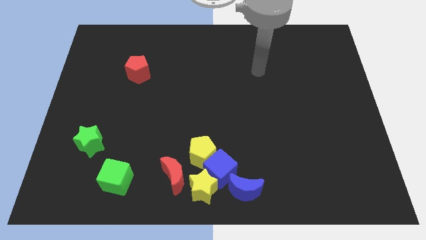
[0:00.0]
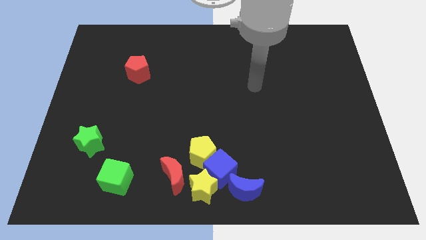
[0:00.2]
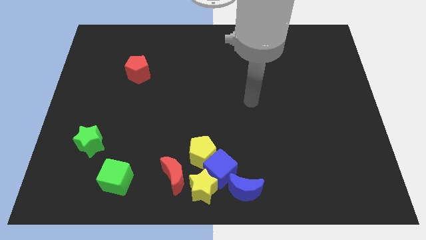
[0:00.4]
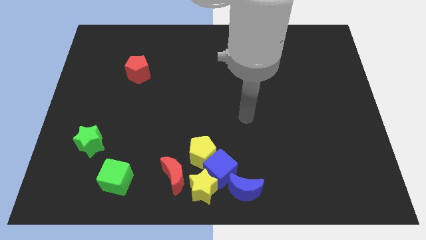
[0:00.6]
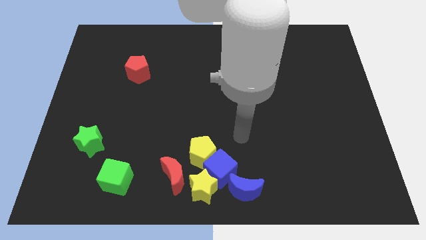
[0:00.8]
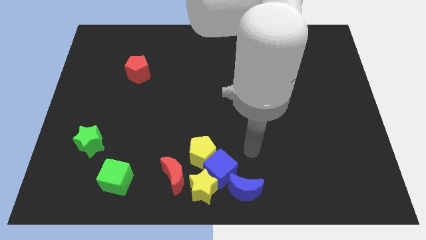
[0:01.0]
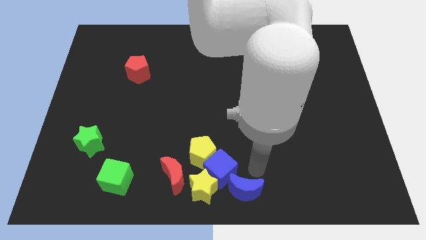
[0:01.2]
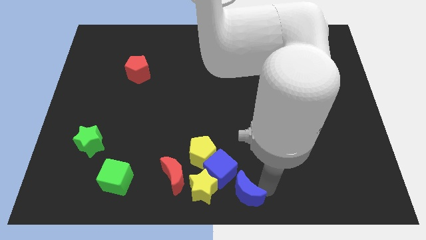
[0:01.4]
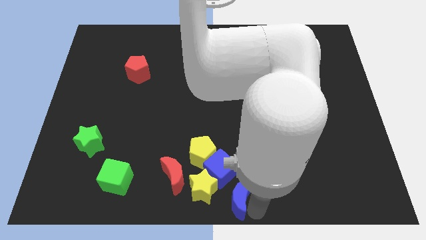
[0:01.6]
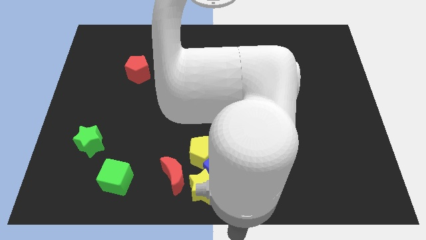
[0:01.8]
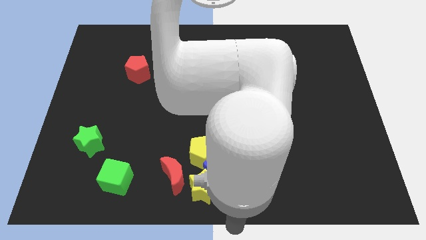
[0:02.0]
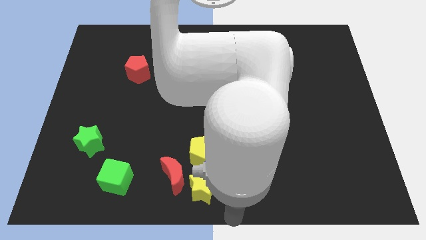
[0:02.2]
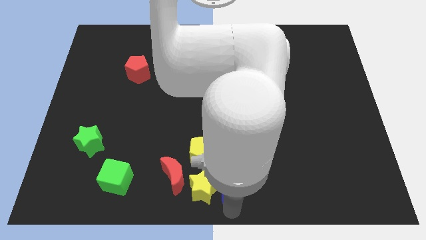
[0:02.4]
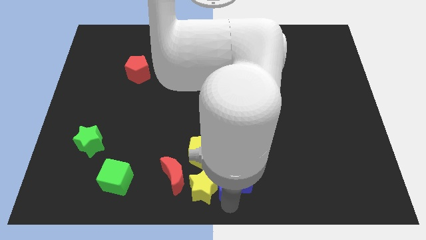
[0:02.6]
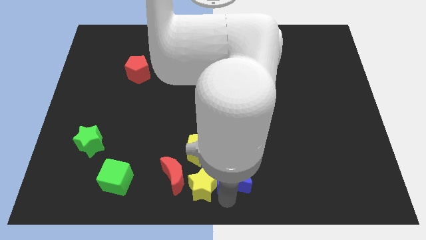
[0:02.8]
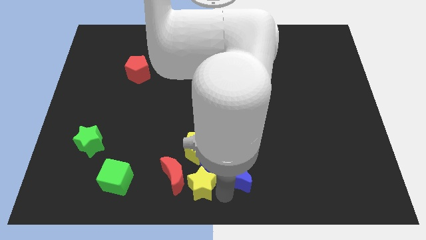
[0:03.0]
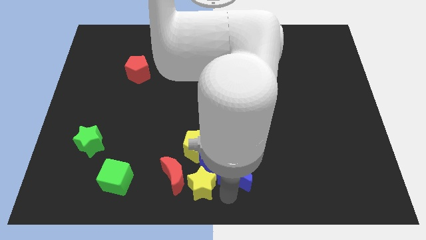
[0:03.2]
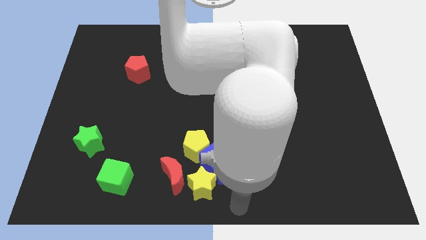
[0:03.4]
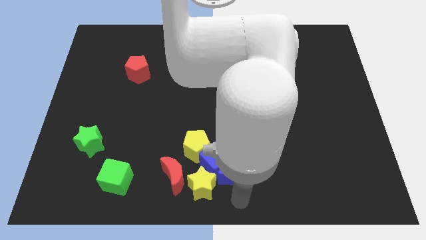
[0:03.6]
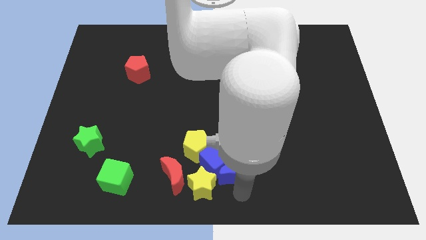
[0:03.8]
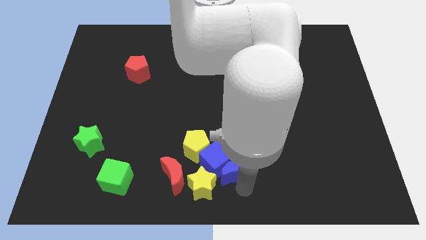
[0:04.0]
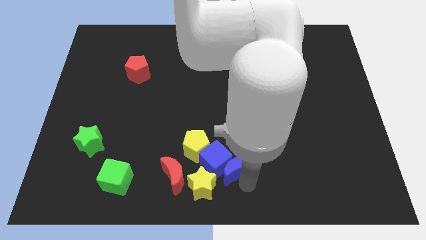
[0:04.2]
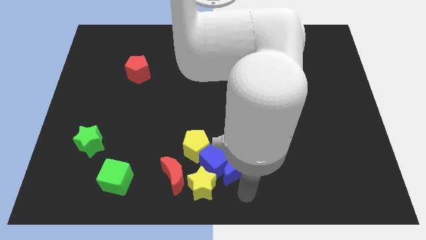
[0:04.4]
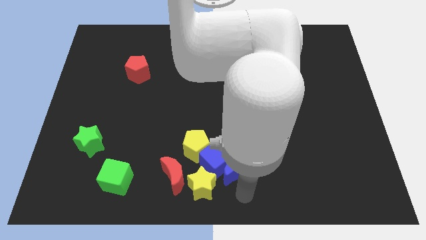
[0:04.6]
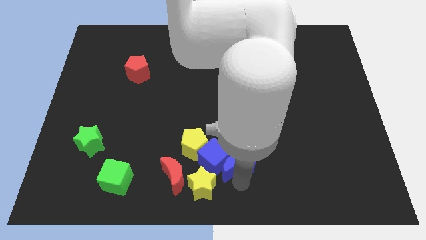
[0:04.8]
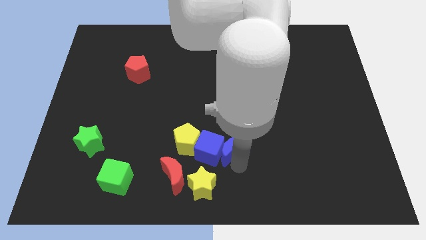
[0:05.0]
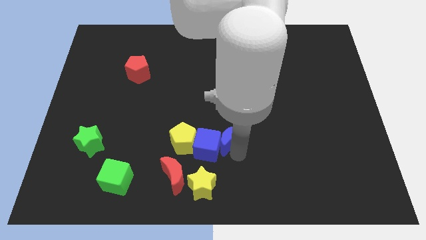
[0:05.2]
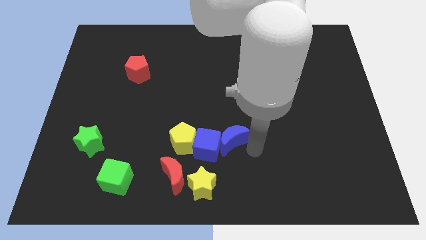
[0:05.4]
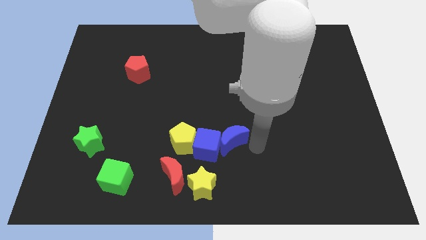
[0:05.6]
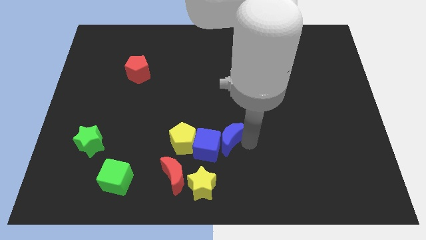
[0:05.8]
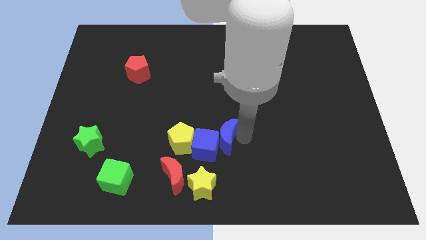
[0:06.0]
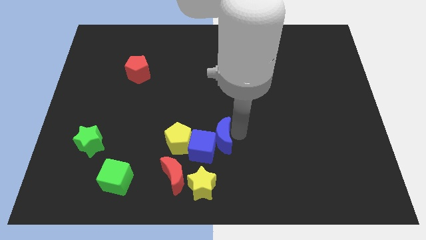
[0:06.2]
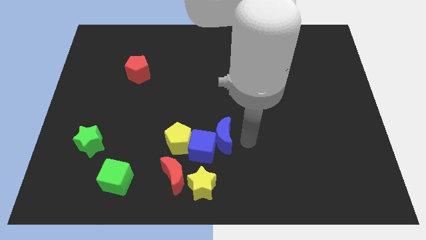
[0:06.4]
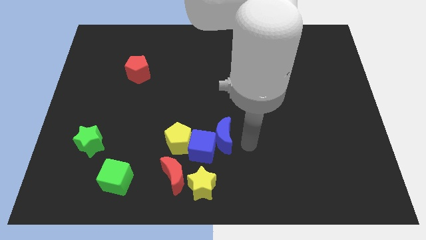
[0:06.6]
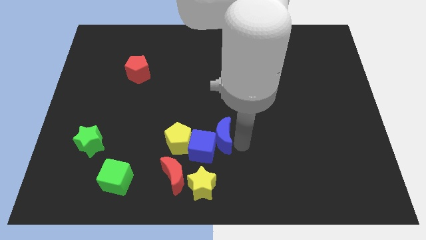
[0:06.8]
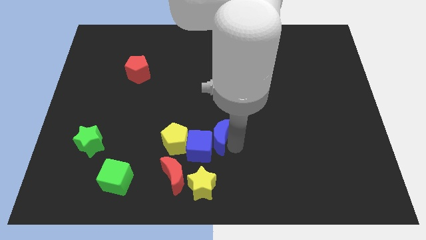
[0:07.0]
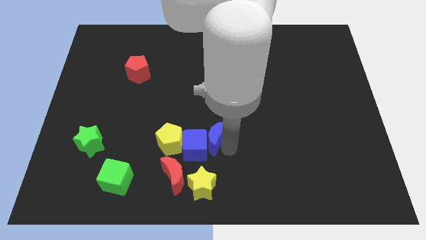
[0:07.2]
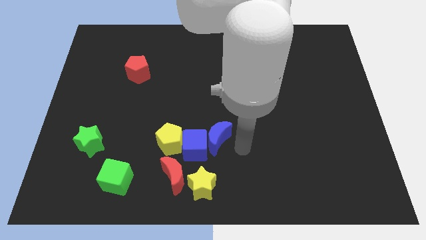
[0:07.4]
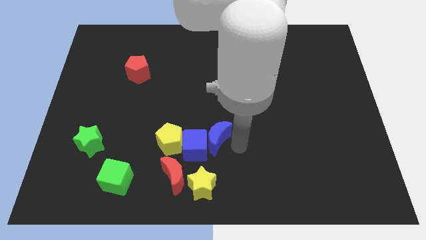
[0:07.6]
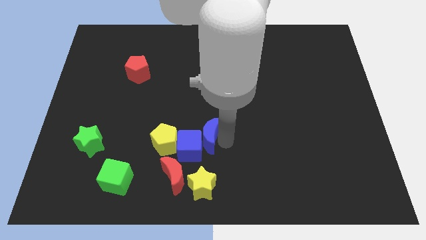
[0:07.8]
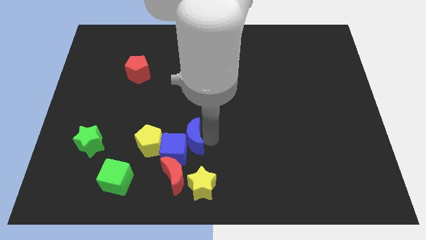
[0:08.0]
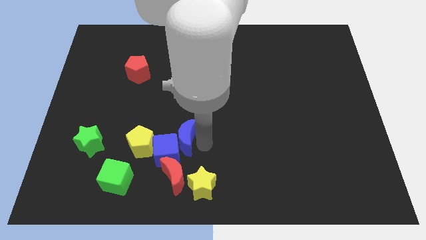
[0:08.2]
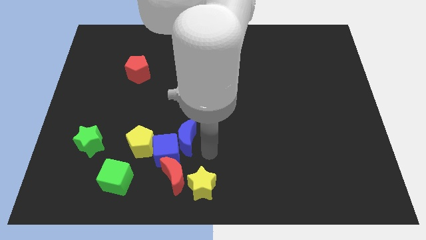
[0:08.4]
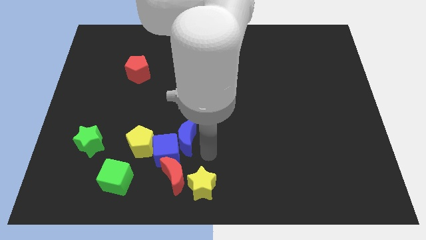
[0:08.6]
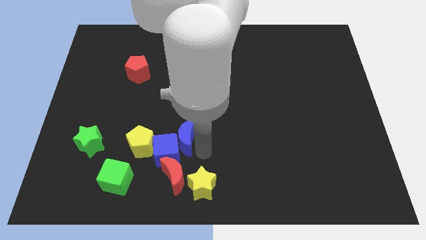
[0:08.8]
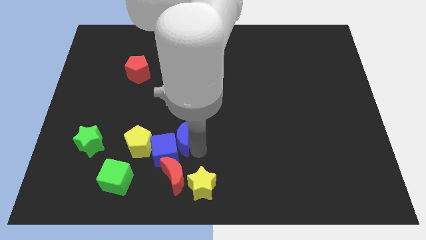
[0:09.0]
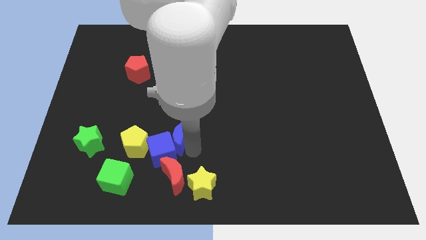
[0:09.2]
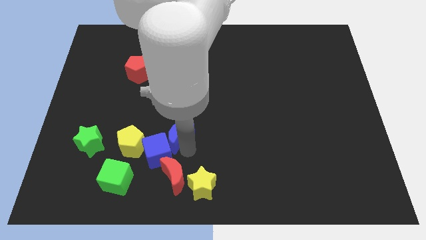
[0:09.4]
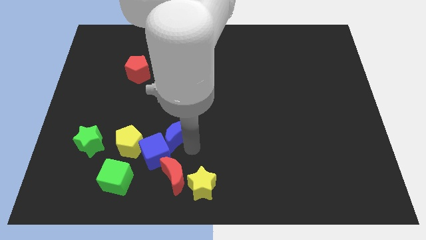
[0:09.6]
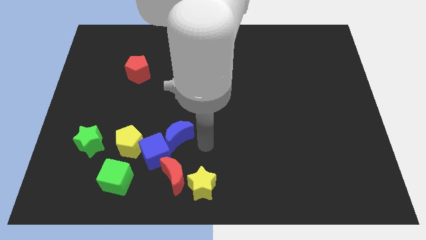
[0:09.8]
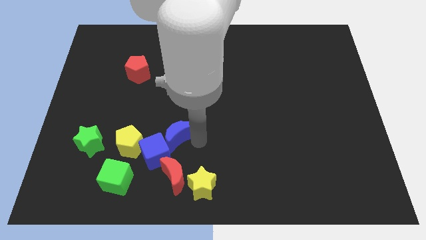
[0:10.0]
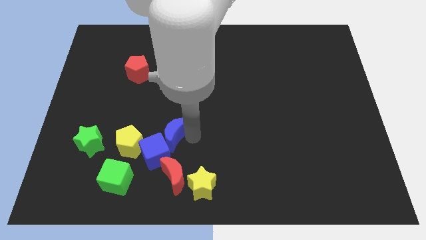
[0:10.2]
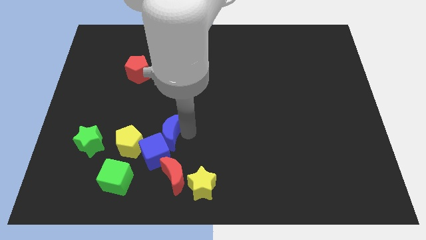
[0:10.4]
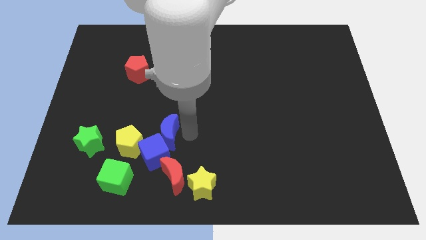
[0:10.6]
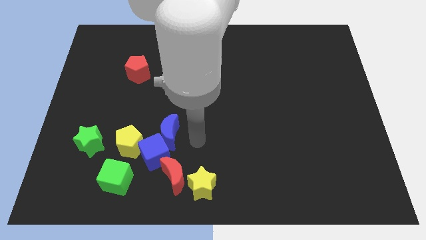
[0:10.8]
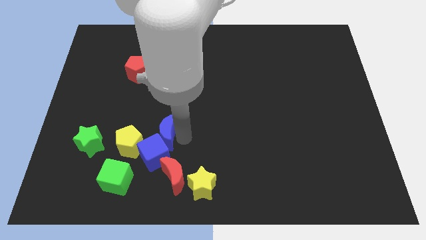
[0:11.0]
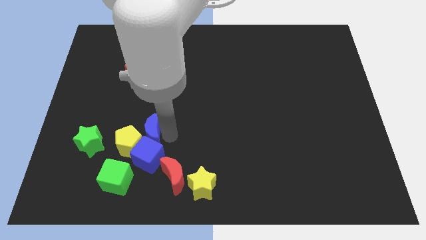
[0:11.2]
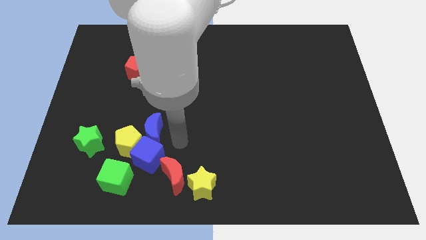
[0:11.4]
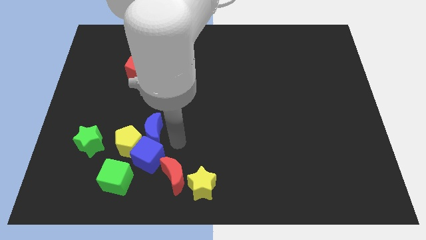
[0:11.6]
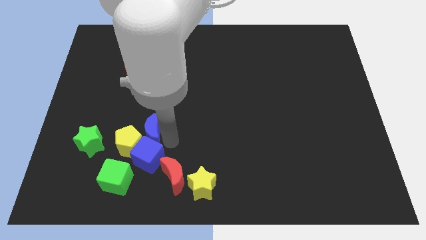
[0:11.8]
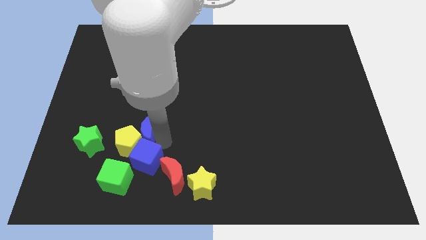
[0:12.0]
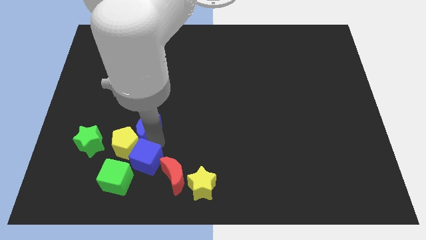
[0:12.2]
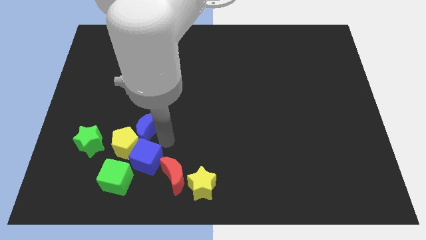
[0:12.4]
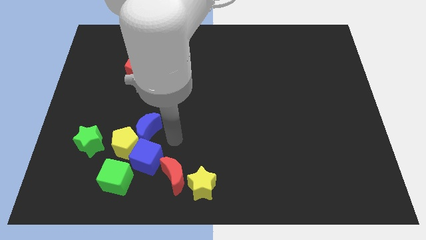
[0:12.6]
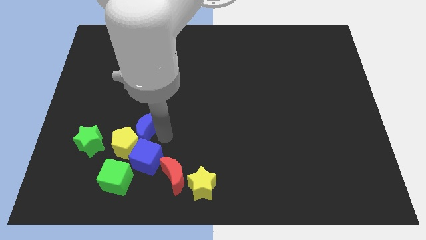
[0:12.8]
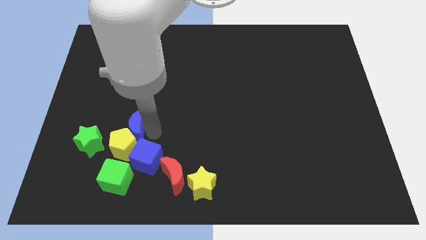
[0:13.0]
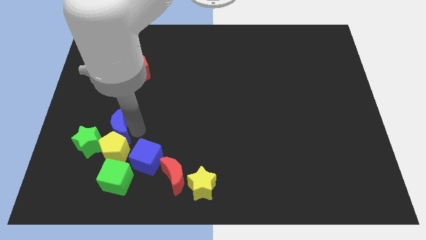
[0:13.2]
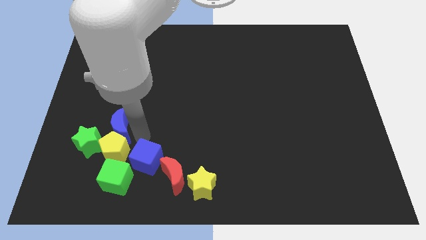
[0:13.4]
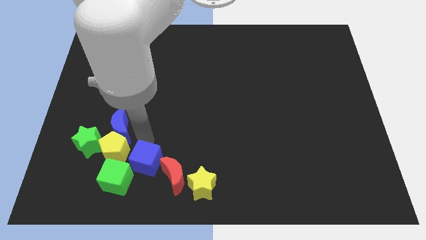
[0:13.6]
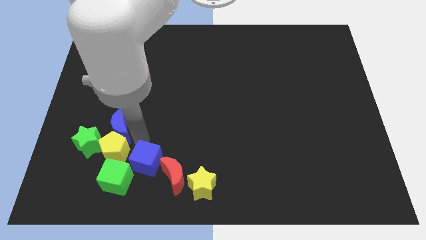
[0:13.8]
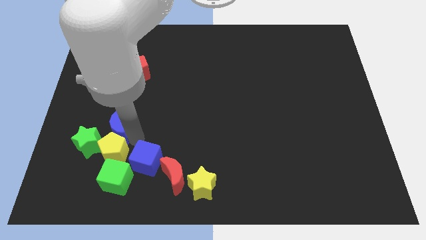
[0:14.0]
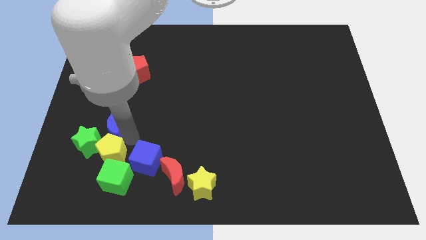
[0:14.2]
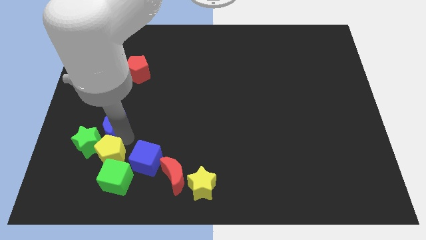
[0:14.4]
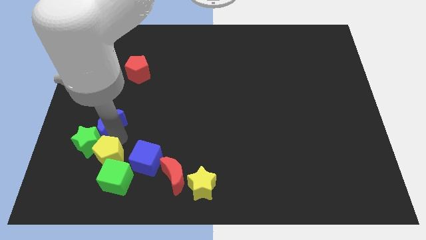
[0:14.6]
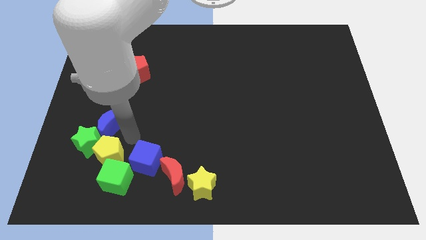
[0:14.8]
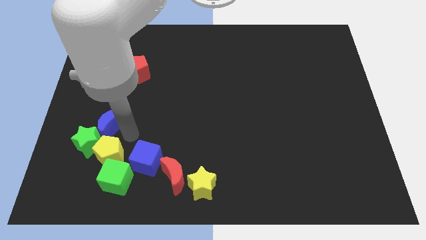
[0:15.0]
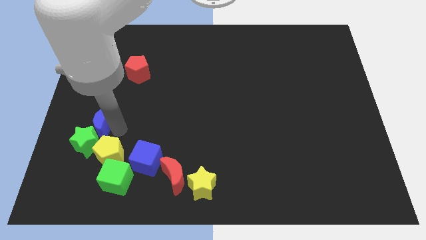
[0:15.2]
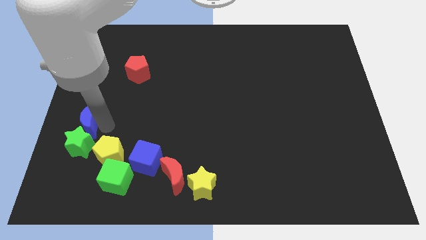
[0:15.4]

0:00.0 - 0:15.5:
put the blue moon to the left side

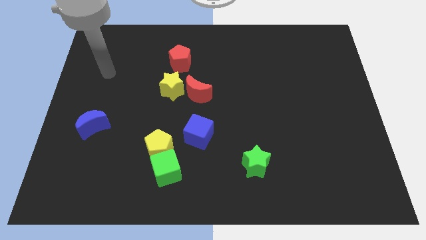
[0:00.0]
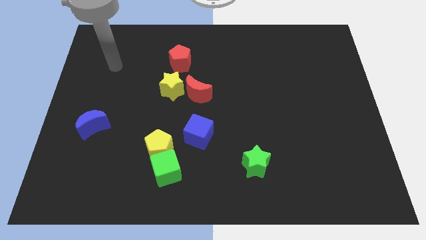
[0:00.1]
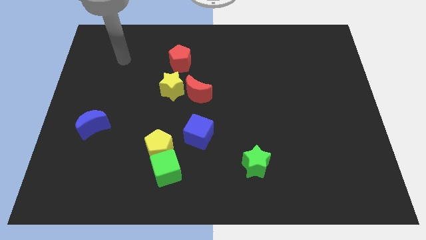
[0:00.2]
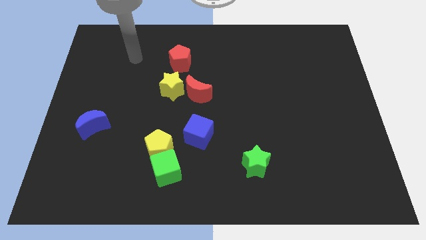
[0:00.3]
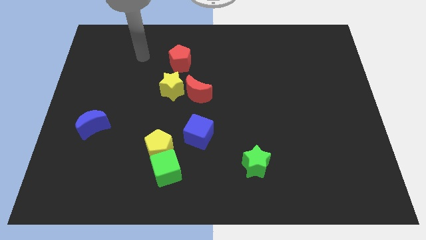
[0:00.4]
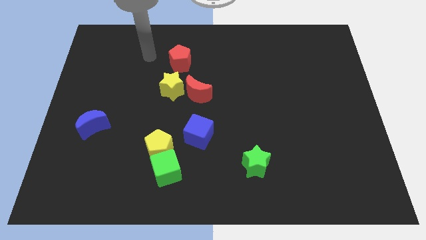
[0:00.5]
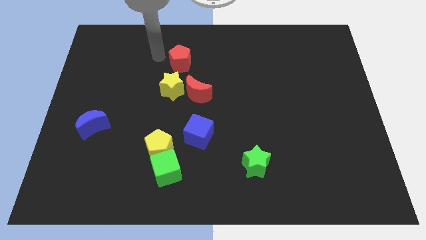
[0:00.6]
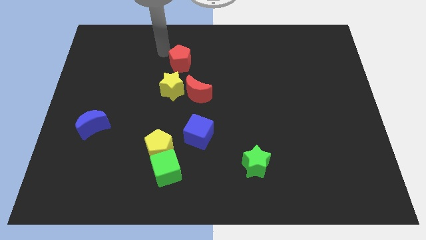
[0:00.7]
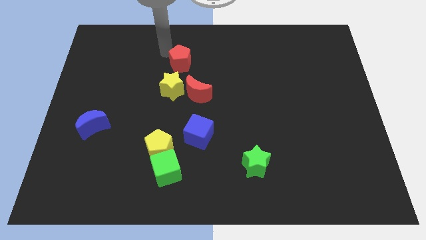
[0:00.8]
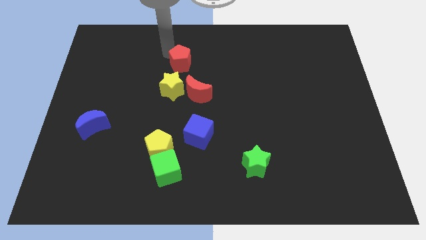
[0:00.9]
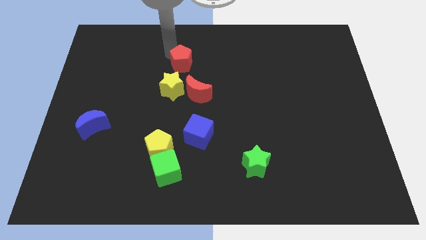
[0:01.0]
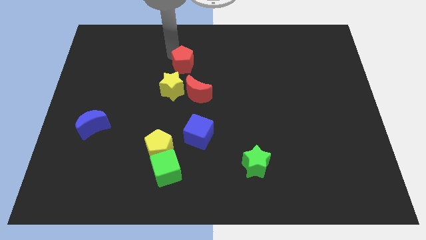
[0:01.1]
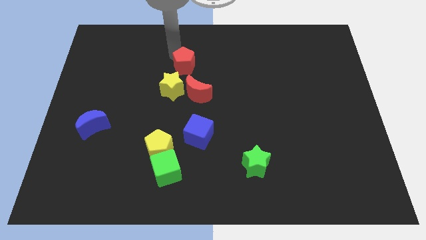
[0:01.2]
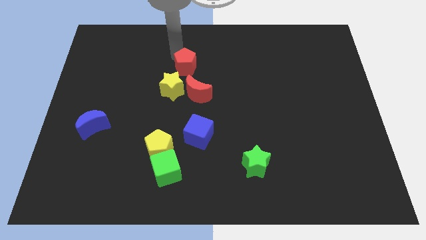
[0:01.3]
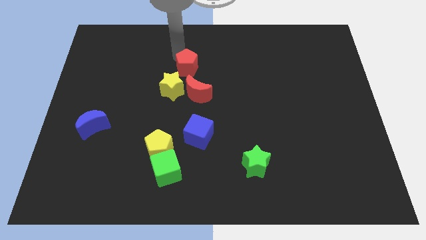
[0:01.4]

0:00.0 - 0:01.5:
push the red pentagon to the center of the board
